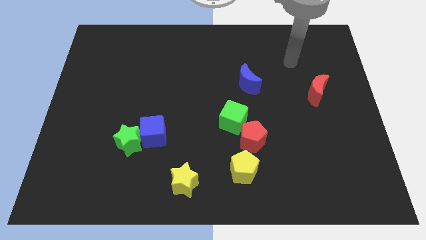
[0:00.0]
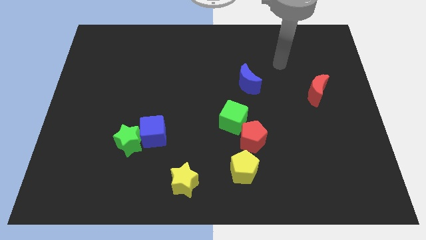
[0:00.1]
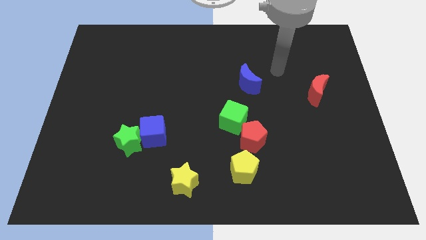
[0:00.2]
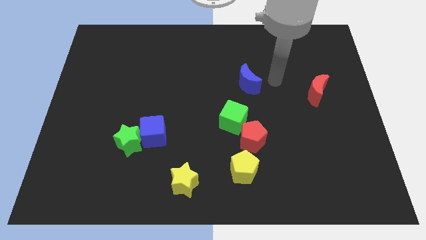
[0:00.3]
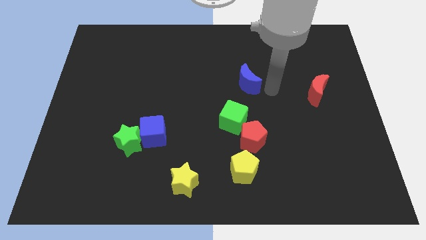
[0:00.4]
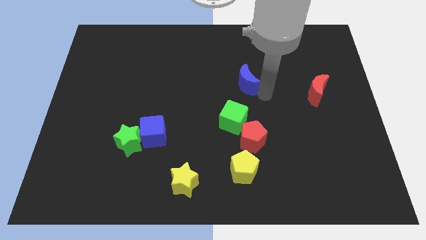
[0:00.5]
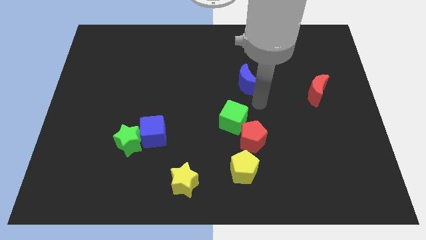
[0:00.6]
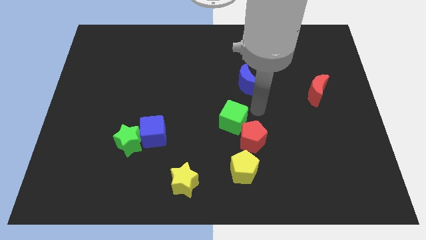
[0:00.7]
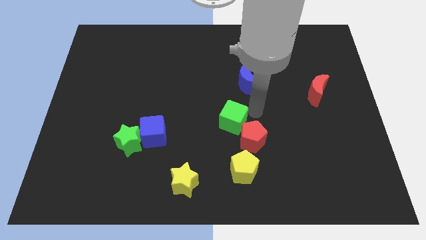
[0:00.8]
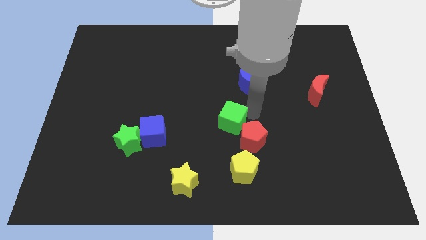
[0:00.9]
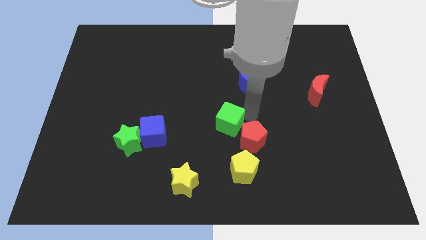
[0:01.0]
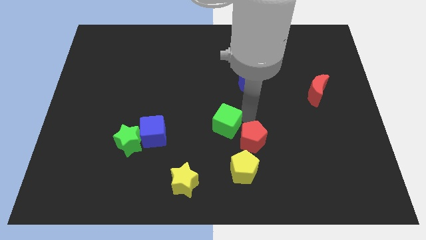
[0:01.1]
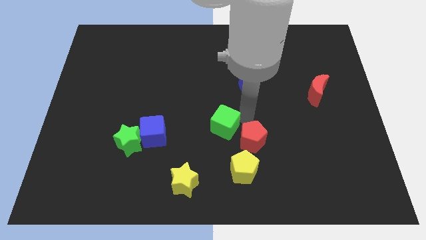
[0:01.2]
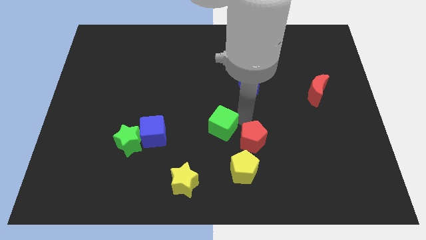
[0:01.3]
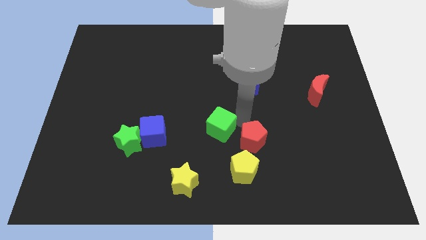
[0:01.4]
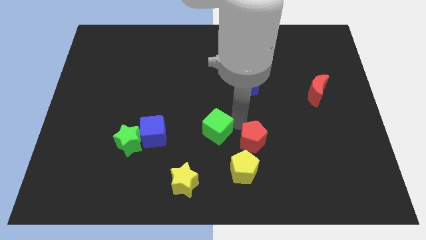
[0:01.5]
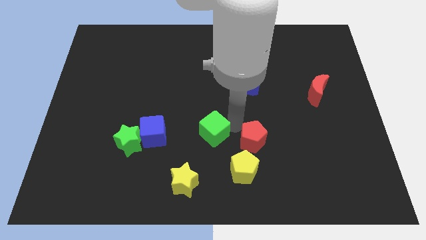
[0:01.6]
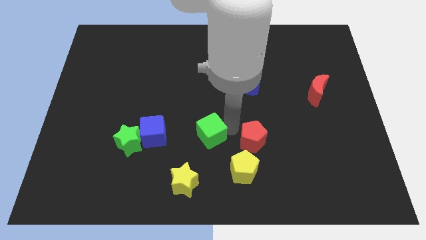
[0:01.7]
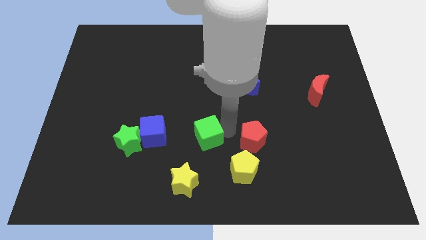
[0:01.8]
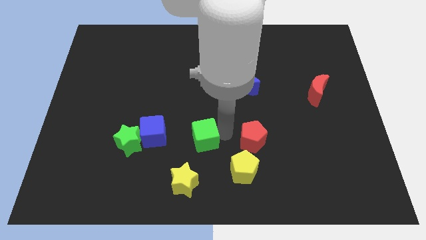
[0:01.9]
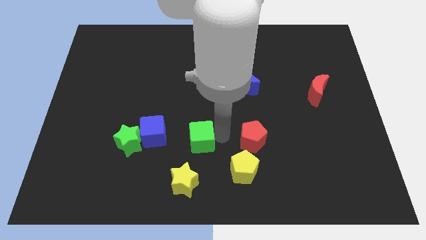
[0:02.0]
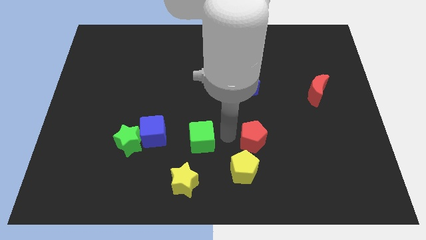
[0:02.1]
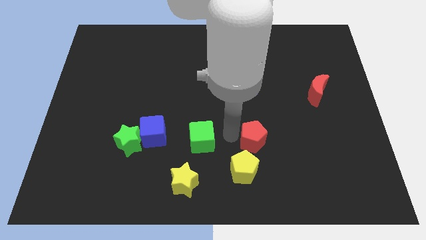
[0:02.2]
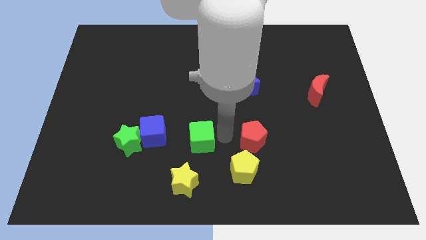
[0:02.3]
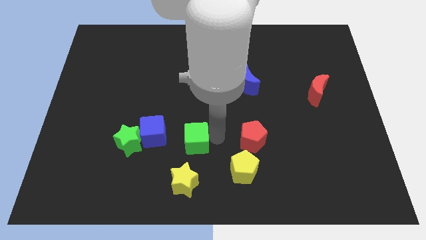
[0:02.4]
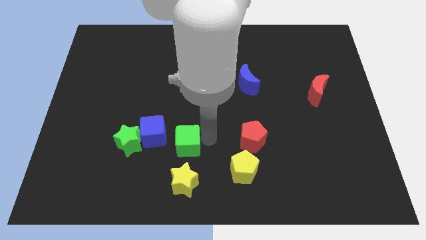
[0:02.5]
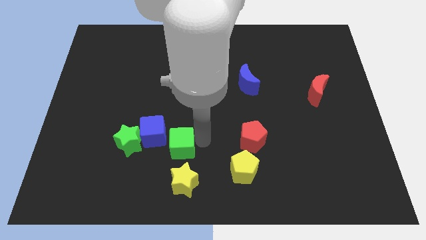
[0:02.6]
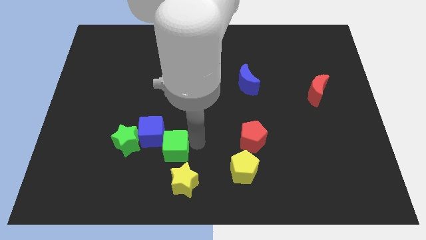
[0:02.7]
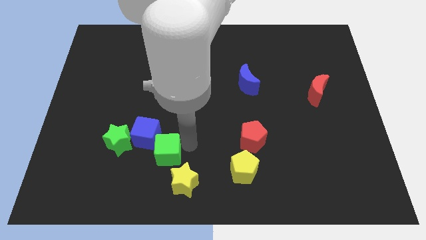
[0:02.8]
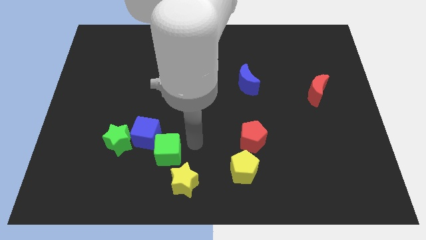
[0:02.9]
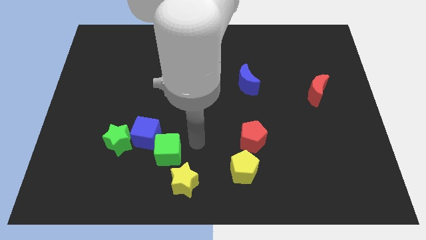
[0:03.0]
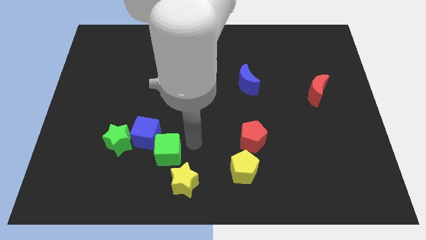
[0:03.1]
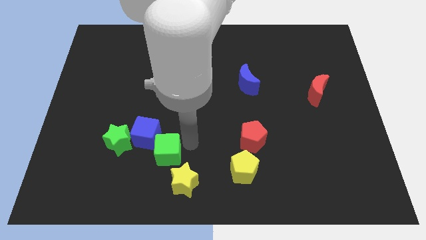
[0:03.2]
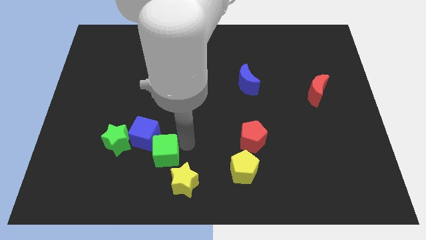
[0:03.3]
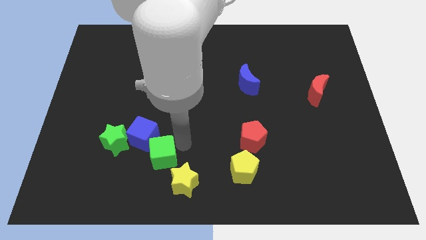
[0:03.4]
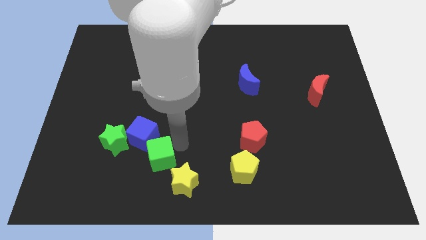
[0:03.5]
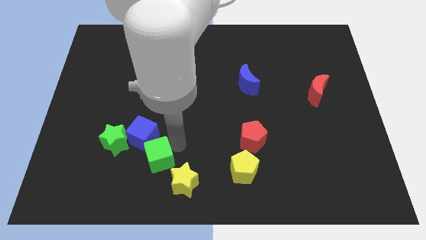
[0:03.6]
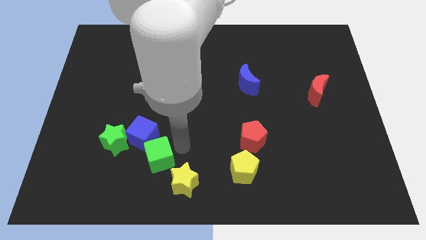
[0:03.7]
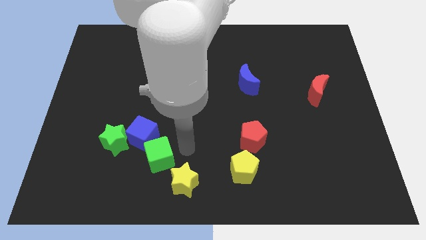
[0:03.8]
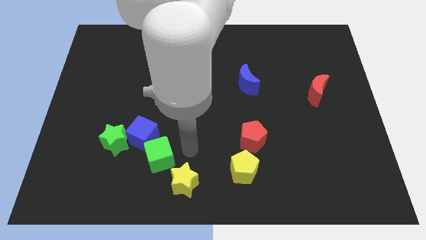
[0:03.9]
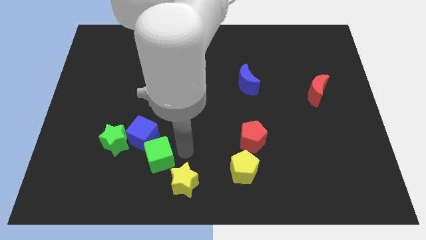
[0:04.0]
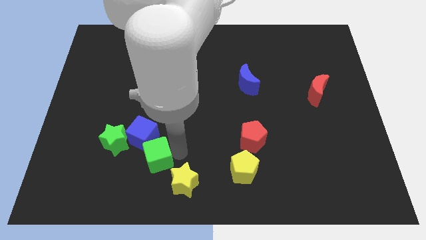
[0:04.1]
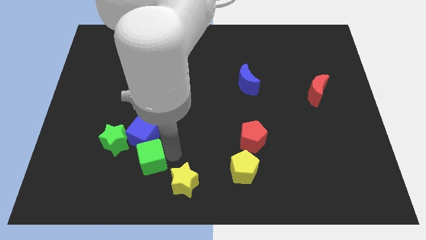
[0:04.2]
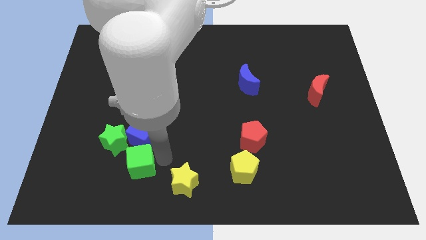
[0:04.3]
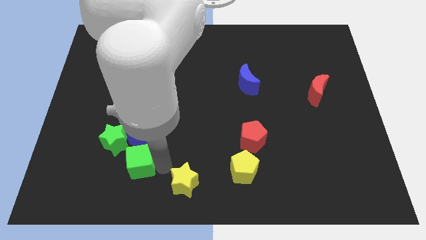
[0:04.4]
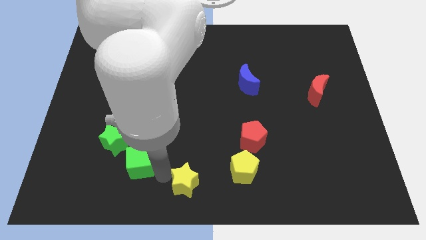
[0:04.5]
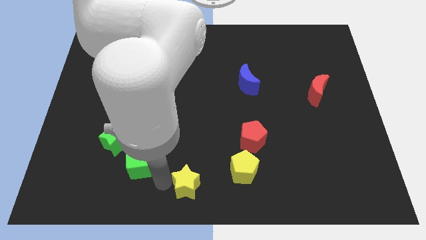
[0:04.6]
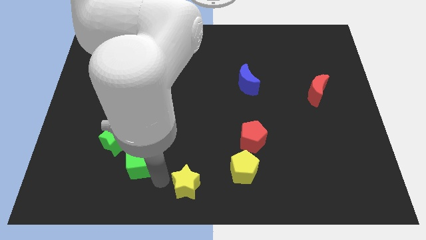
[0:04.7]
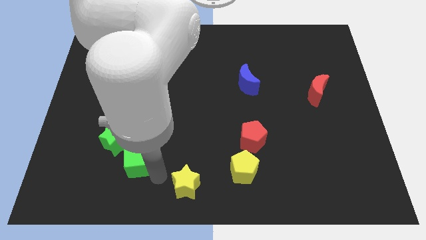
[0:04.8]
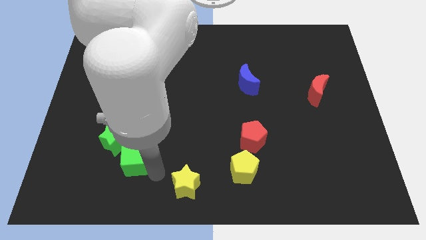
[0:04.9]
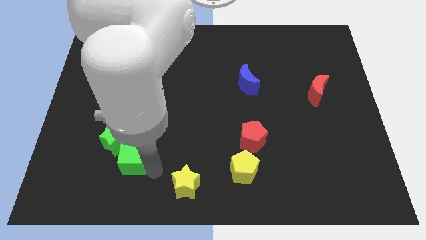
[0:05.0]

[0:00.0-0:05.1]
move the green cube towards the green star

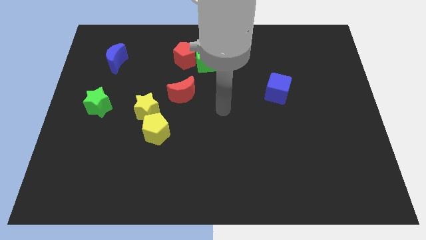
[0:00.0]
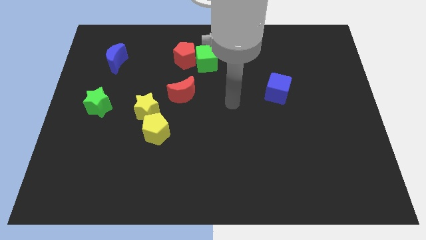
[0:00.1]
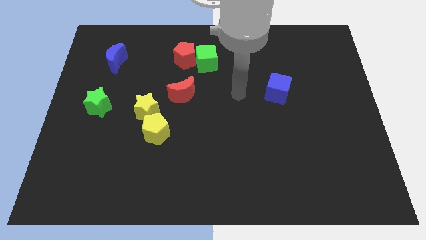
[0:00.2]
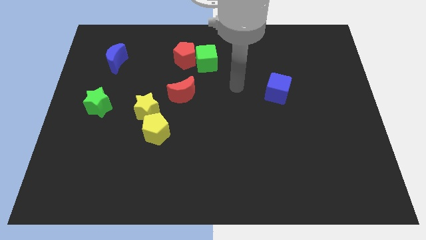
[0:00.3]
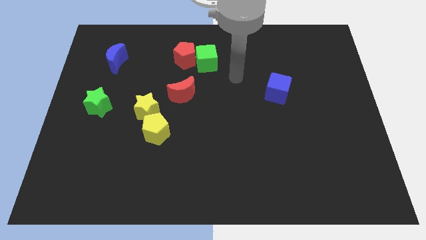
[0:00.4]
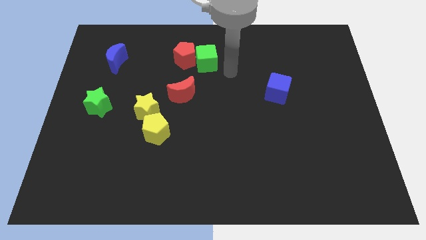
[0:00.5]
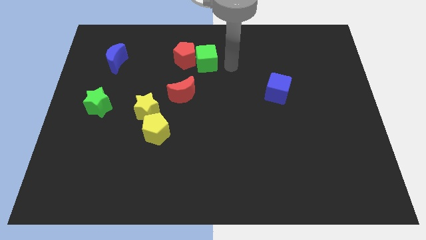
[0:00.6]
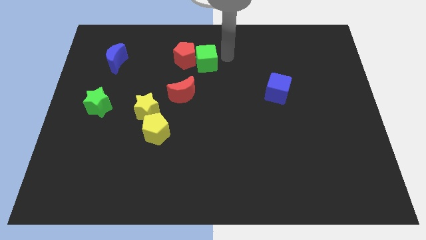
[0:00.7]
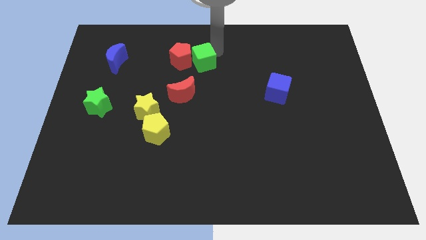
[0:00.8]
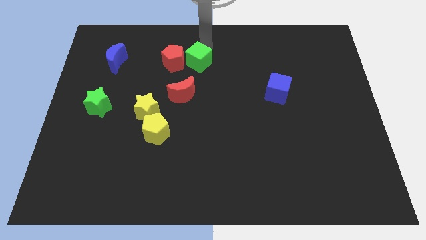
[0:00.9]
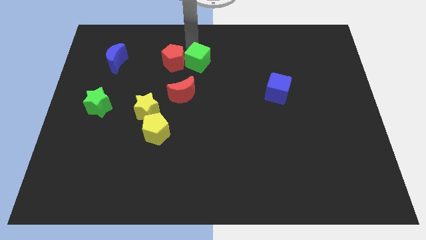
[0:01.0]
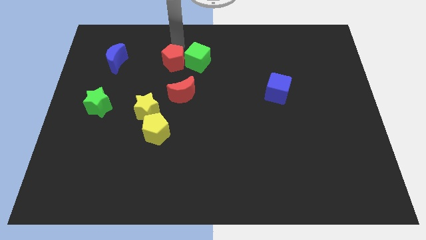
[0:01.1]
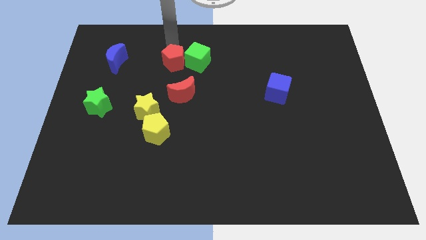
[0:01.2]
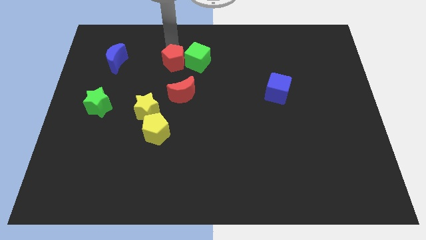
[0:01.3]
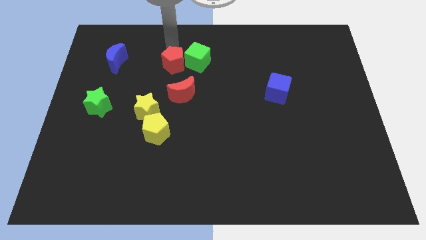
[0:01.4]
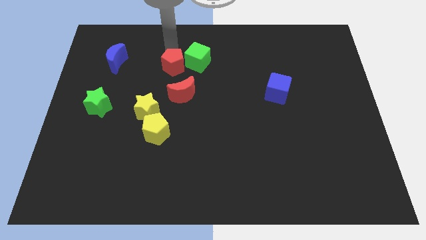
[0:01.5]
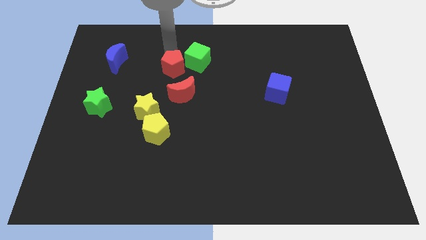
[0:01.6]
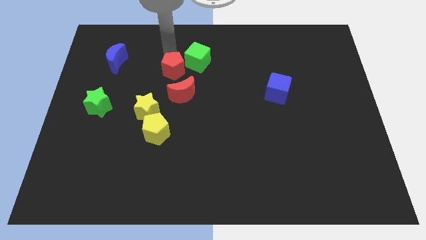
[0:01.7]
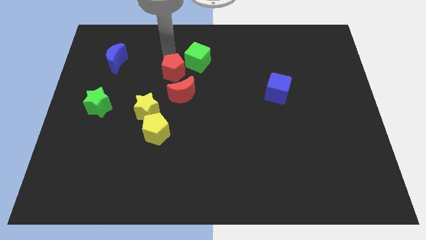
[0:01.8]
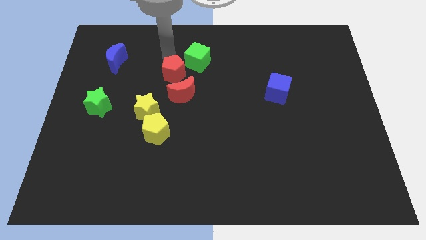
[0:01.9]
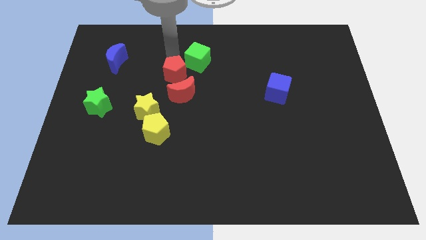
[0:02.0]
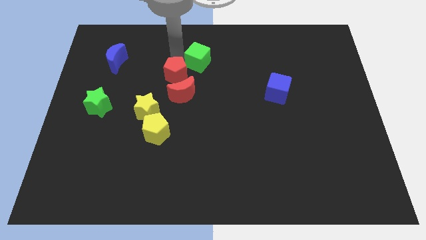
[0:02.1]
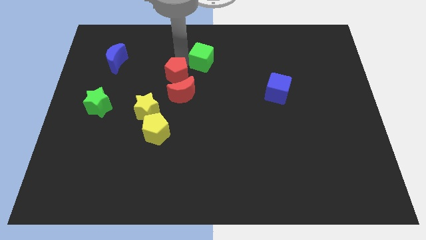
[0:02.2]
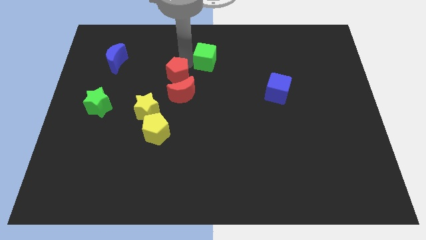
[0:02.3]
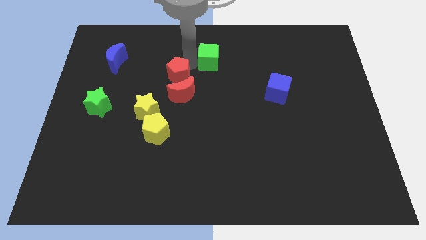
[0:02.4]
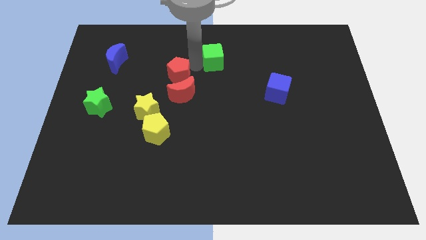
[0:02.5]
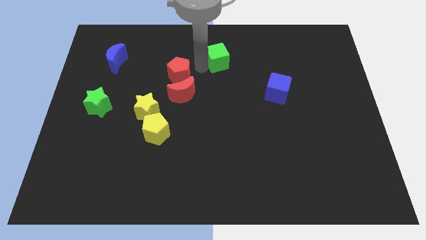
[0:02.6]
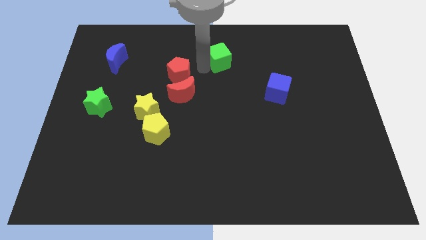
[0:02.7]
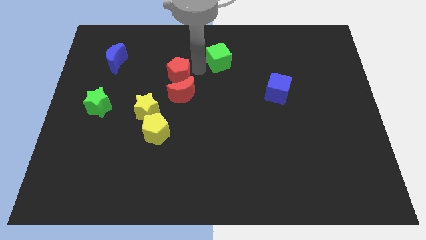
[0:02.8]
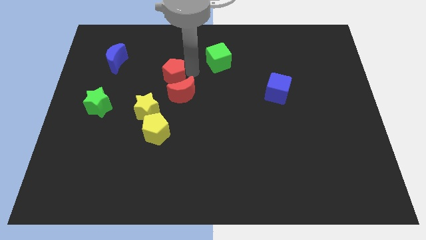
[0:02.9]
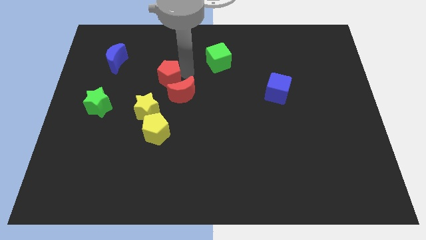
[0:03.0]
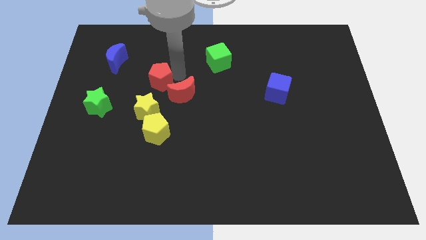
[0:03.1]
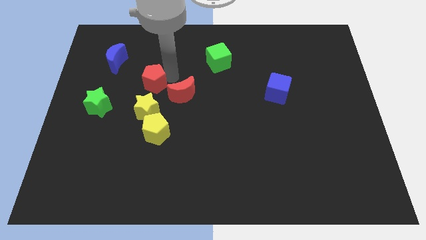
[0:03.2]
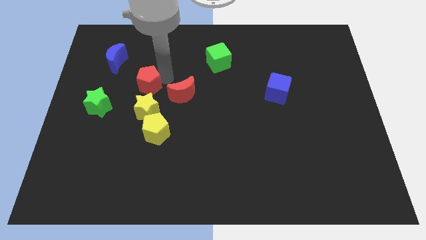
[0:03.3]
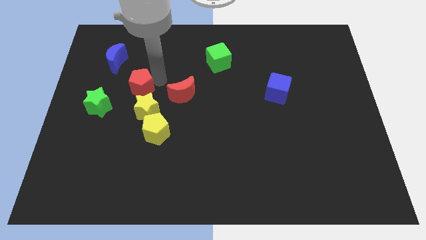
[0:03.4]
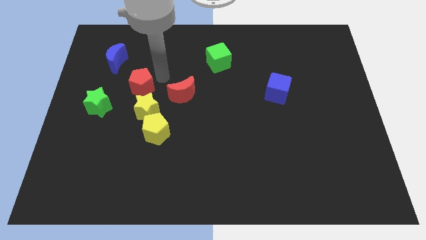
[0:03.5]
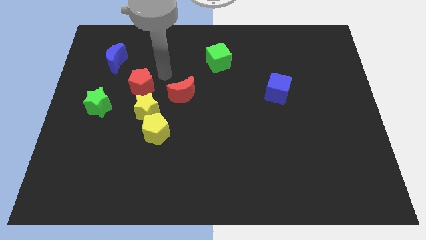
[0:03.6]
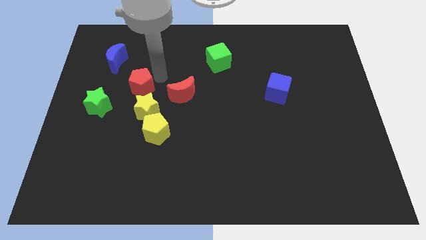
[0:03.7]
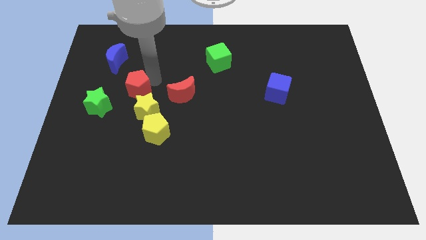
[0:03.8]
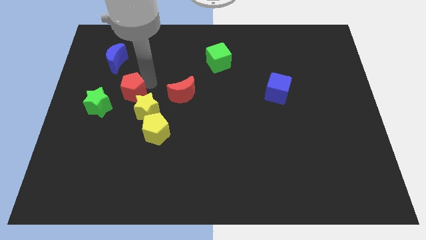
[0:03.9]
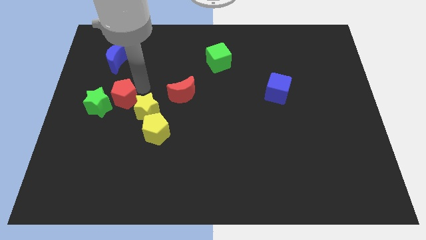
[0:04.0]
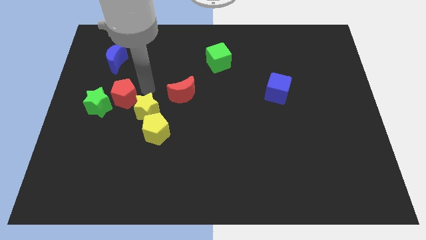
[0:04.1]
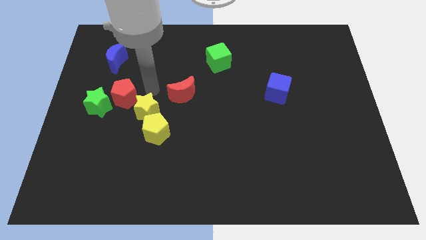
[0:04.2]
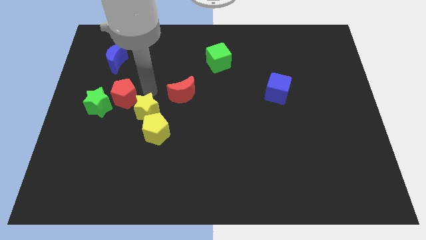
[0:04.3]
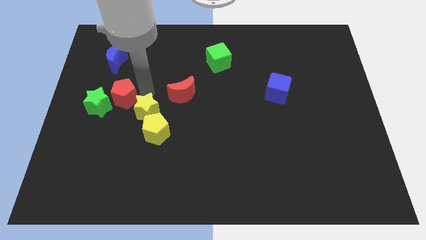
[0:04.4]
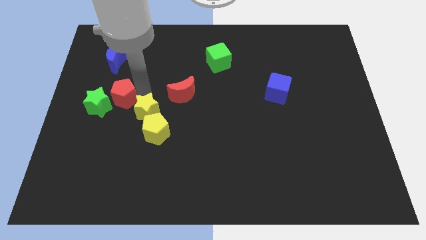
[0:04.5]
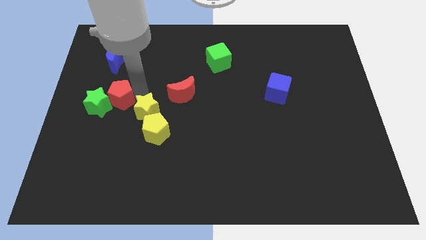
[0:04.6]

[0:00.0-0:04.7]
move the red pentagon close to the green star
